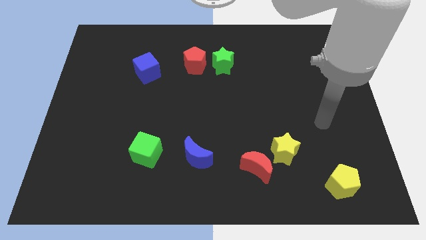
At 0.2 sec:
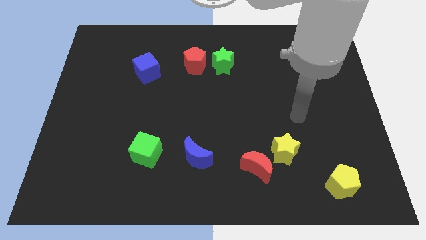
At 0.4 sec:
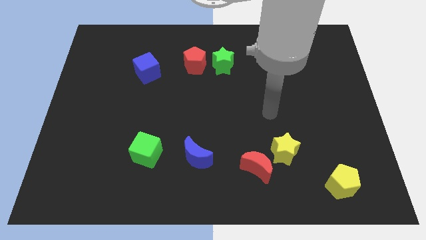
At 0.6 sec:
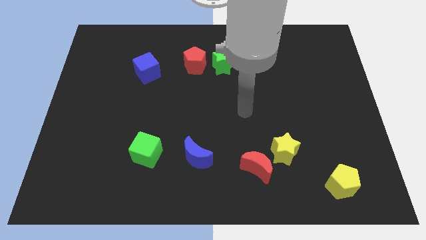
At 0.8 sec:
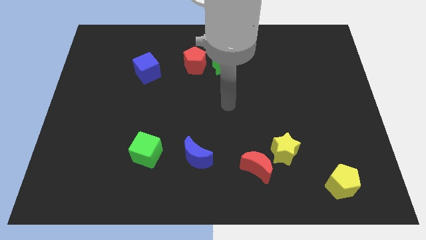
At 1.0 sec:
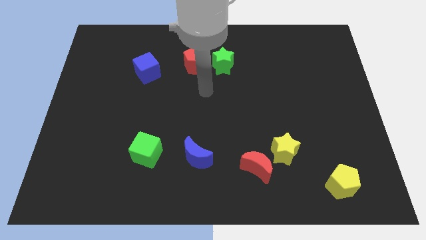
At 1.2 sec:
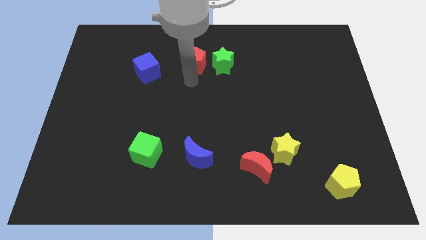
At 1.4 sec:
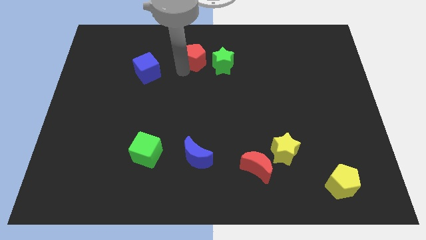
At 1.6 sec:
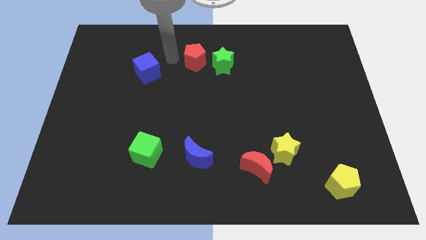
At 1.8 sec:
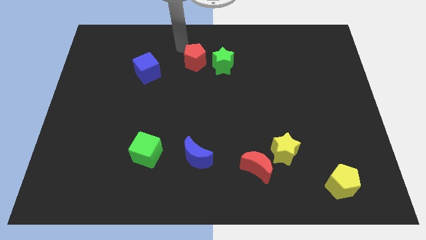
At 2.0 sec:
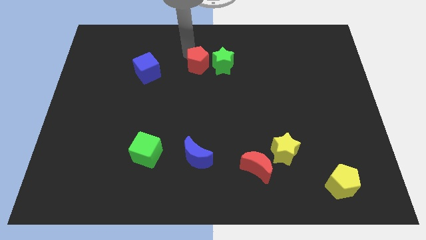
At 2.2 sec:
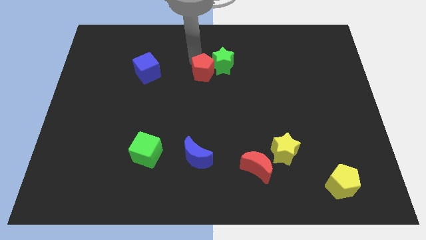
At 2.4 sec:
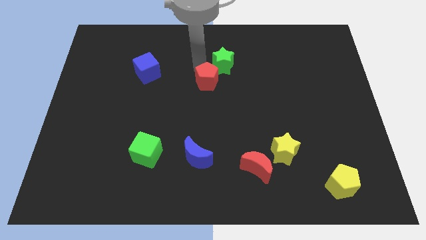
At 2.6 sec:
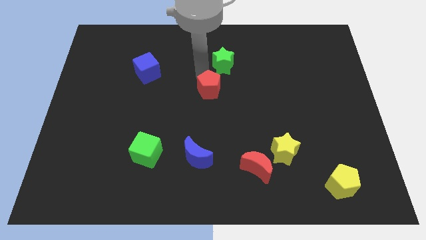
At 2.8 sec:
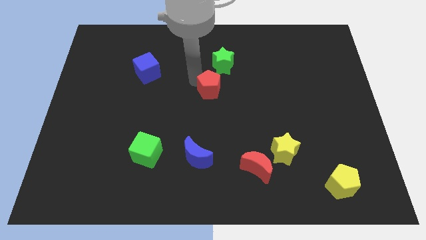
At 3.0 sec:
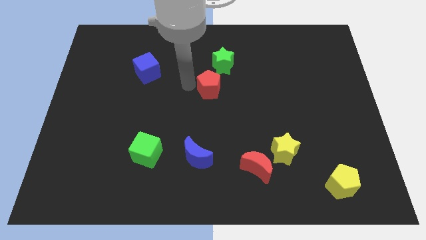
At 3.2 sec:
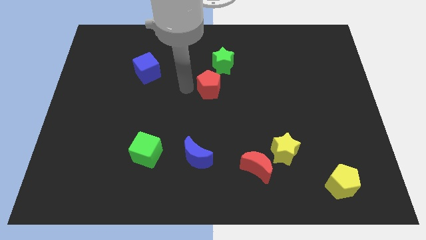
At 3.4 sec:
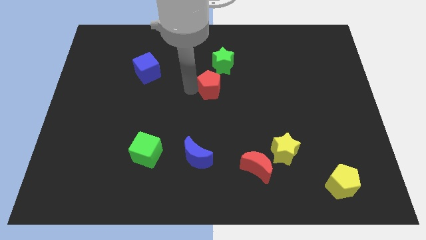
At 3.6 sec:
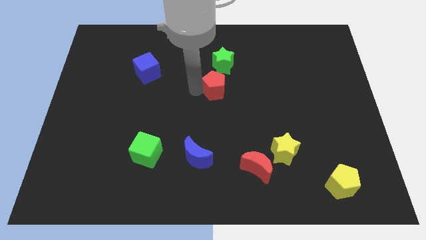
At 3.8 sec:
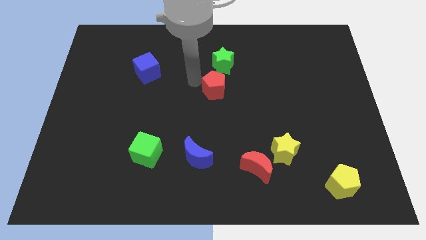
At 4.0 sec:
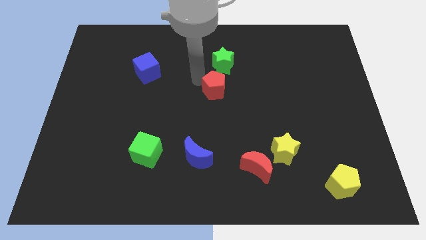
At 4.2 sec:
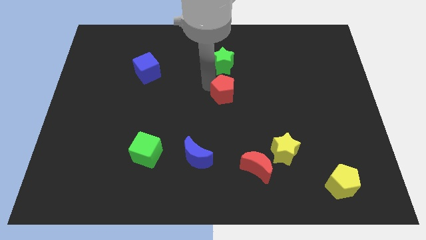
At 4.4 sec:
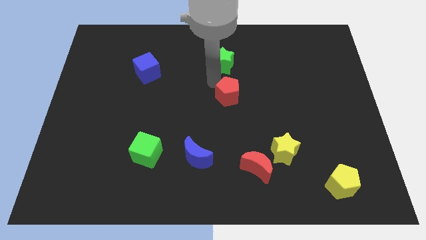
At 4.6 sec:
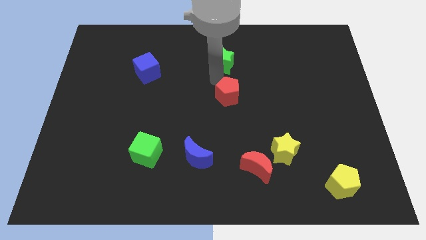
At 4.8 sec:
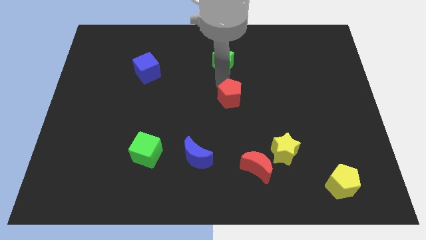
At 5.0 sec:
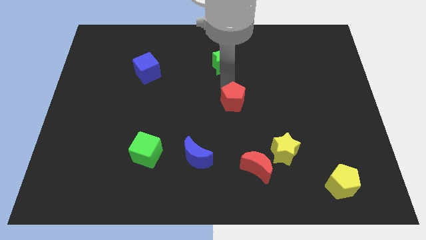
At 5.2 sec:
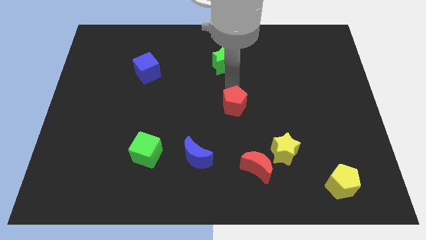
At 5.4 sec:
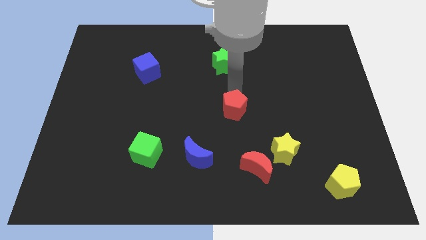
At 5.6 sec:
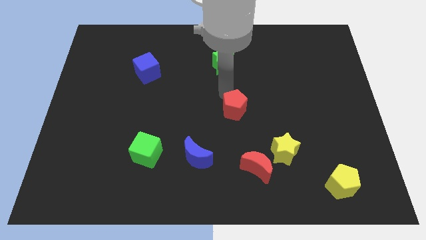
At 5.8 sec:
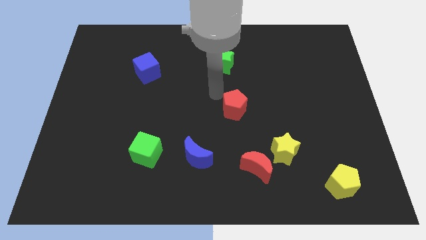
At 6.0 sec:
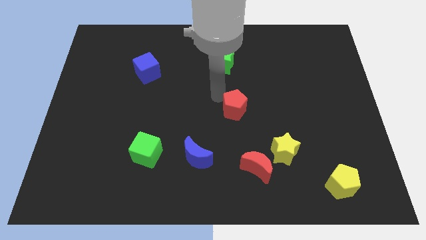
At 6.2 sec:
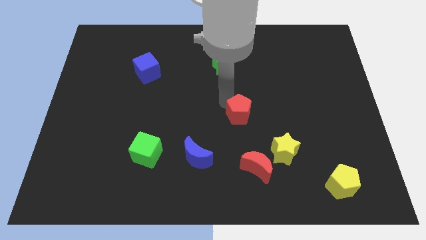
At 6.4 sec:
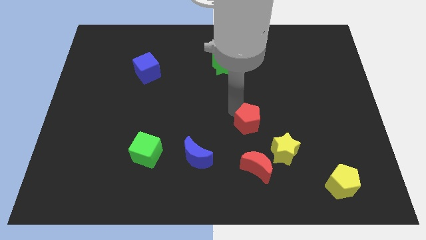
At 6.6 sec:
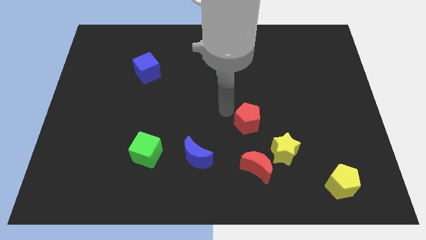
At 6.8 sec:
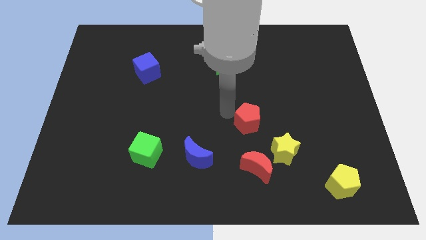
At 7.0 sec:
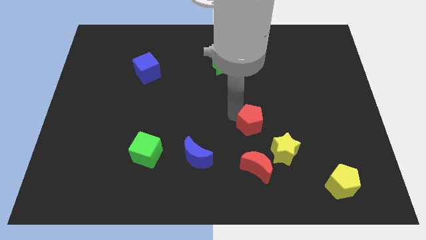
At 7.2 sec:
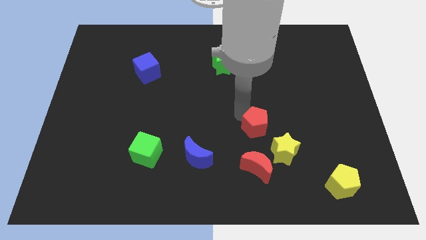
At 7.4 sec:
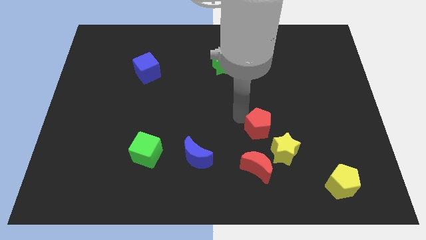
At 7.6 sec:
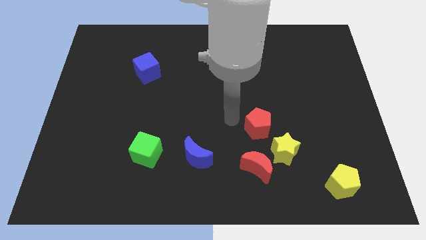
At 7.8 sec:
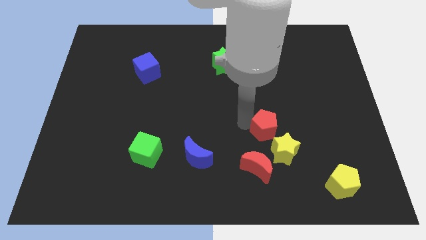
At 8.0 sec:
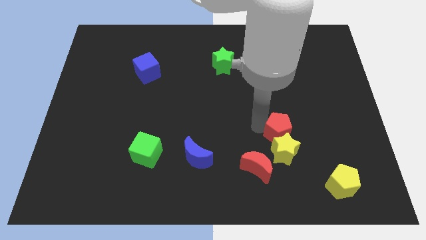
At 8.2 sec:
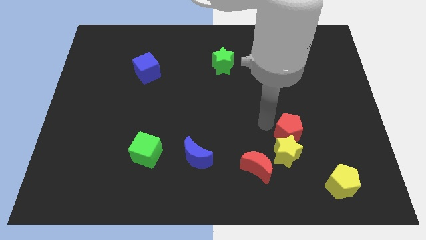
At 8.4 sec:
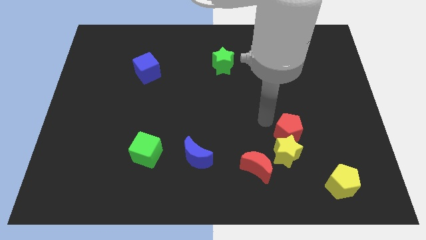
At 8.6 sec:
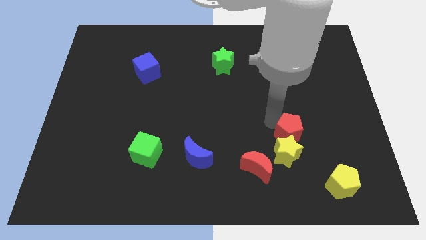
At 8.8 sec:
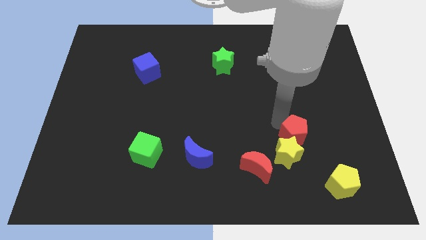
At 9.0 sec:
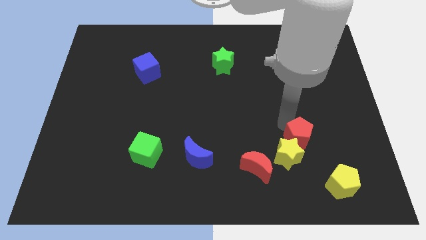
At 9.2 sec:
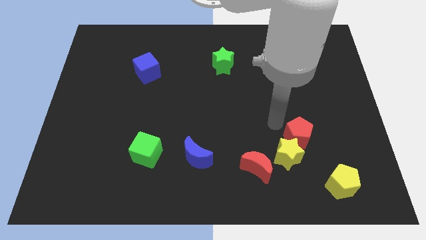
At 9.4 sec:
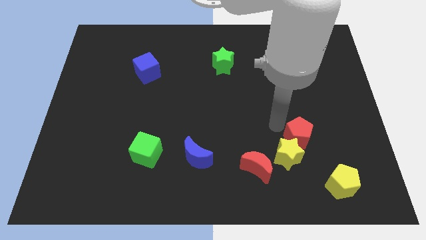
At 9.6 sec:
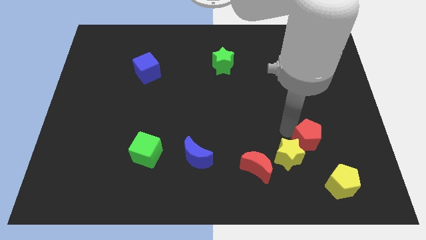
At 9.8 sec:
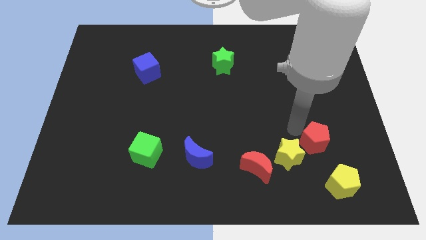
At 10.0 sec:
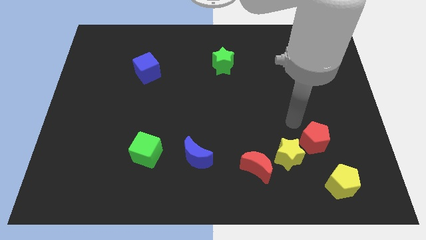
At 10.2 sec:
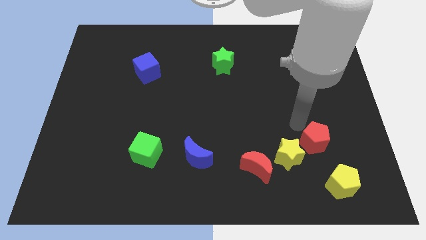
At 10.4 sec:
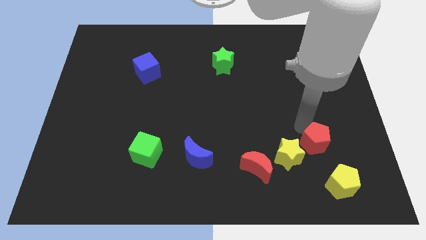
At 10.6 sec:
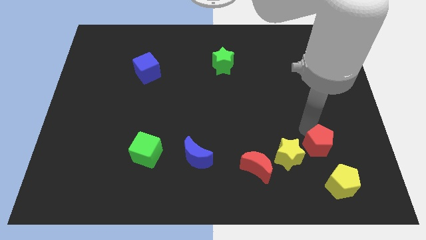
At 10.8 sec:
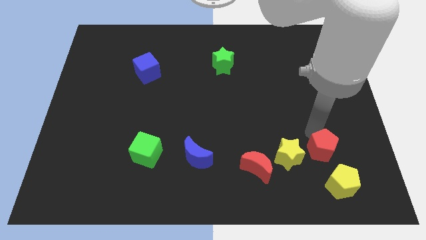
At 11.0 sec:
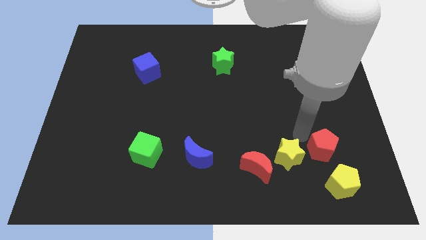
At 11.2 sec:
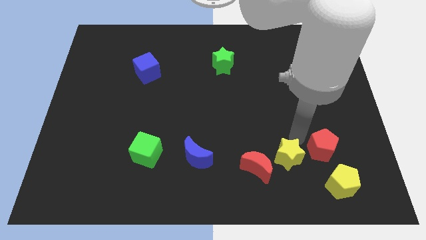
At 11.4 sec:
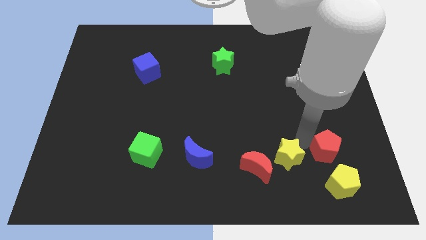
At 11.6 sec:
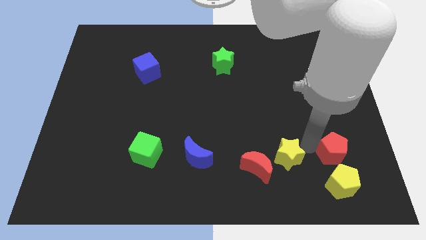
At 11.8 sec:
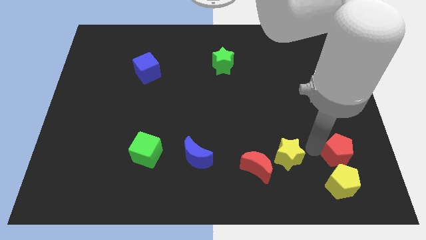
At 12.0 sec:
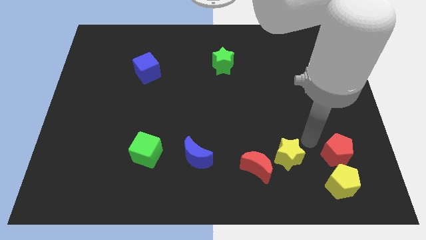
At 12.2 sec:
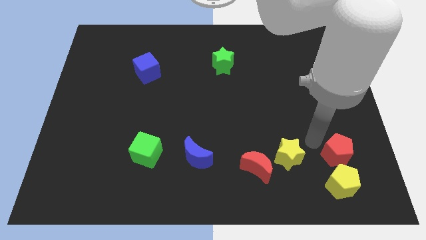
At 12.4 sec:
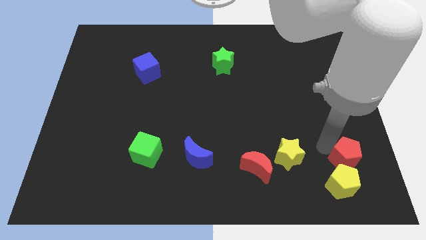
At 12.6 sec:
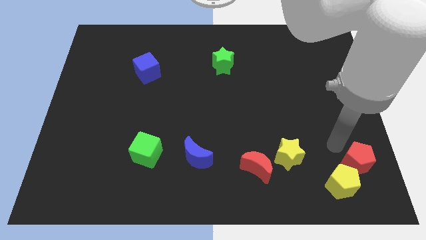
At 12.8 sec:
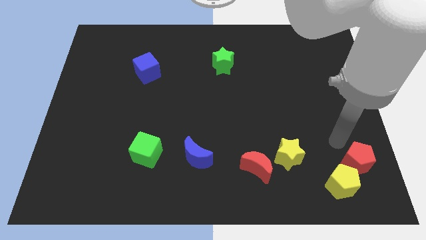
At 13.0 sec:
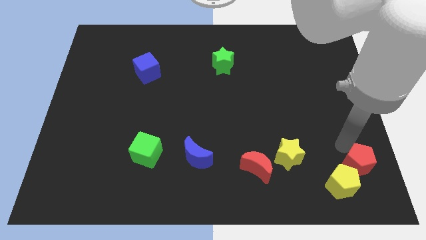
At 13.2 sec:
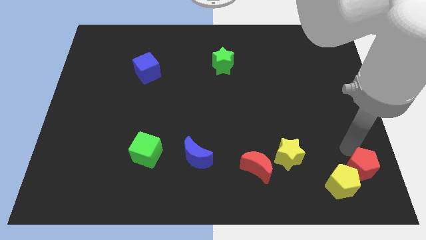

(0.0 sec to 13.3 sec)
push the red pentagon to the bottom right corner
